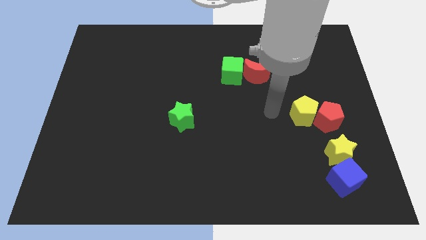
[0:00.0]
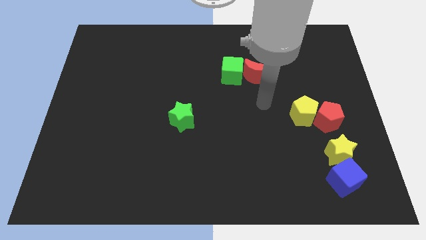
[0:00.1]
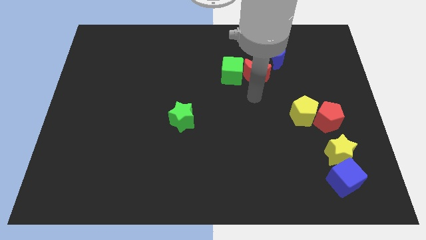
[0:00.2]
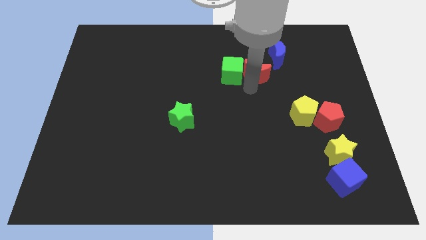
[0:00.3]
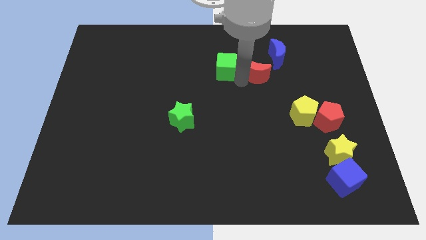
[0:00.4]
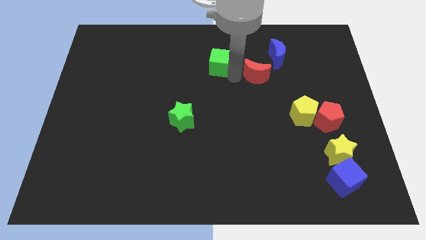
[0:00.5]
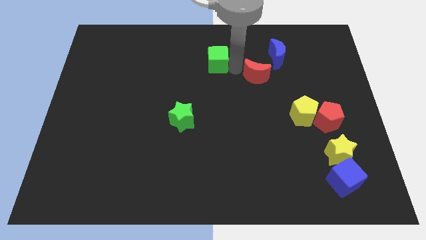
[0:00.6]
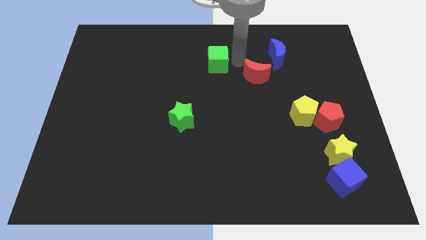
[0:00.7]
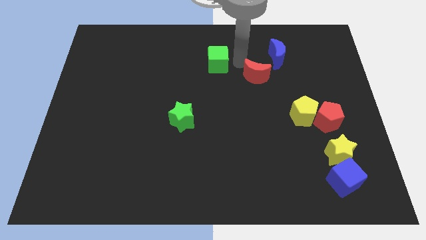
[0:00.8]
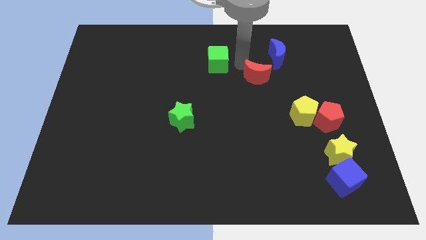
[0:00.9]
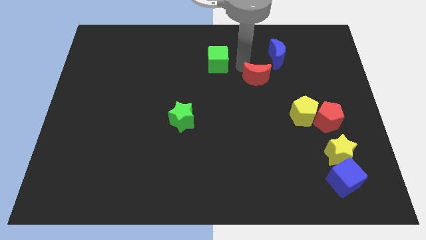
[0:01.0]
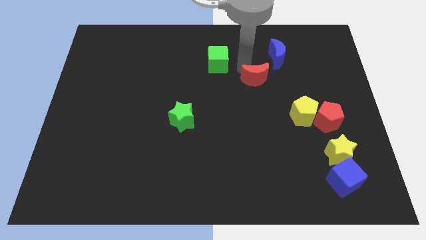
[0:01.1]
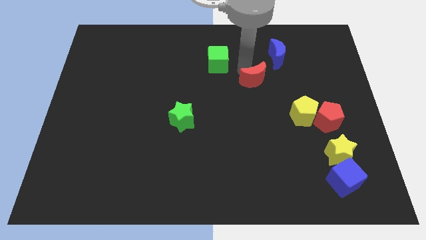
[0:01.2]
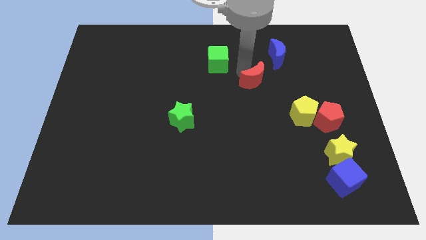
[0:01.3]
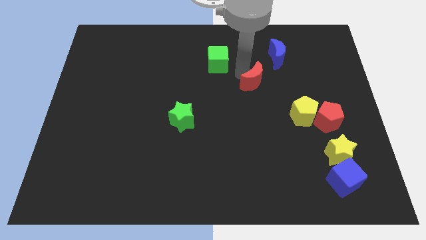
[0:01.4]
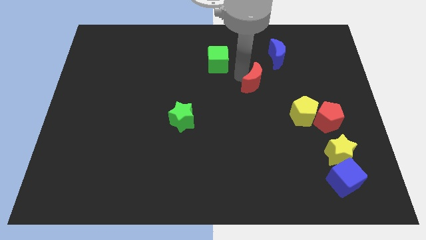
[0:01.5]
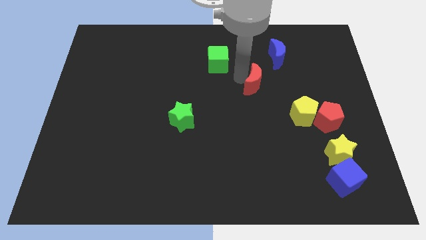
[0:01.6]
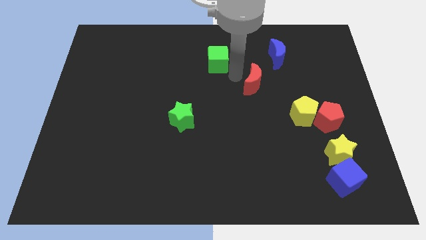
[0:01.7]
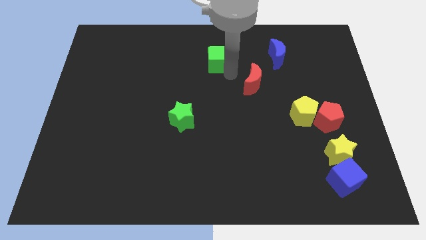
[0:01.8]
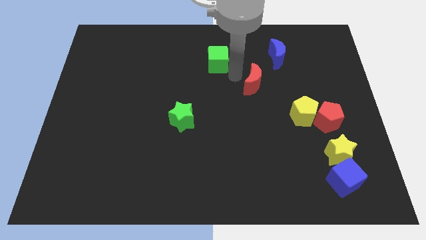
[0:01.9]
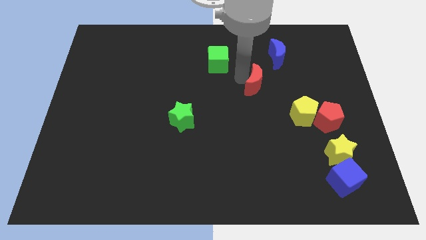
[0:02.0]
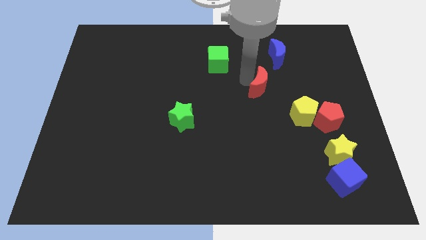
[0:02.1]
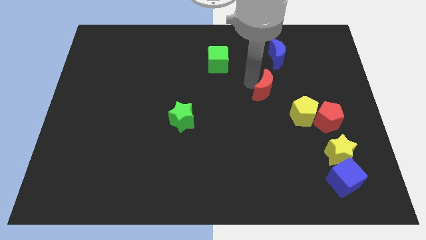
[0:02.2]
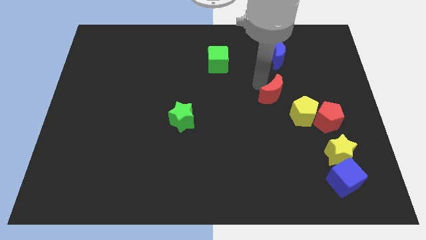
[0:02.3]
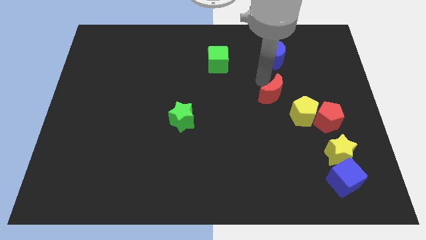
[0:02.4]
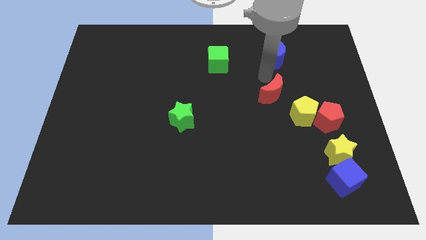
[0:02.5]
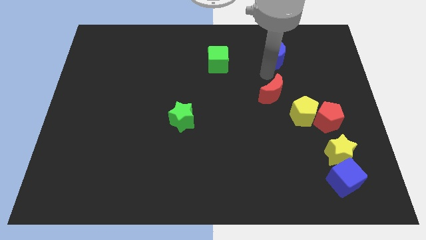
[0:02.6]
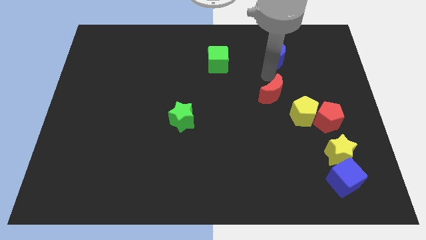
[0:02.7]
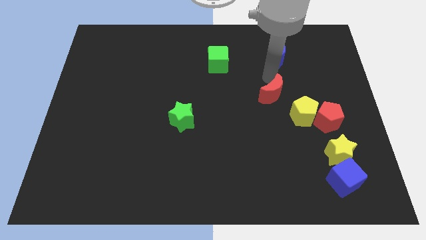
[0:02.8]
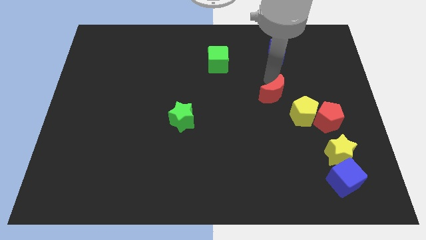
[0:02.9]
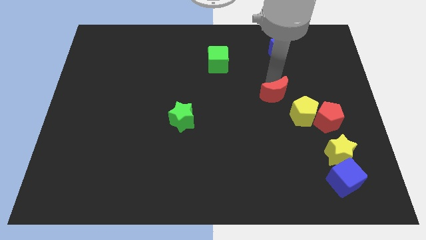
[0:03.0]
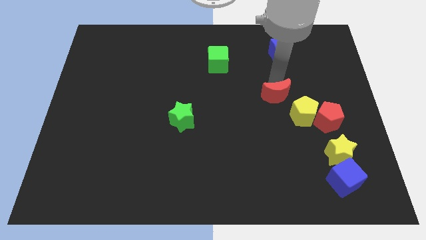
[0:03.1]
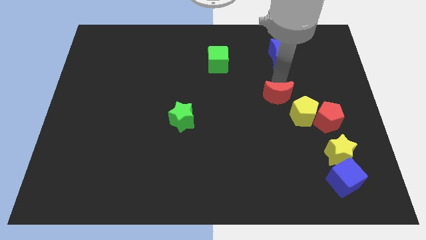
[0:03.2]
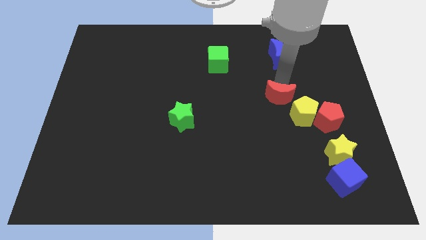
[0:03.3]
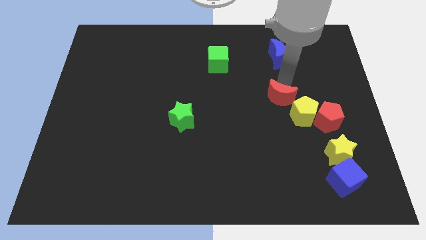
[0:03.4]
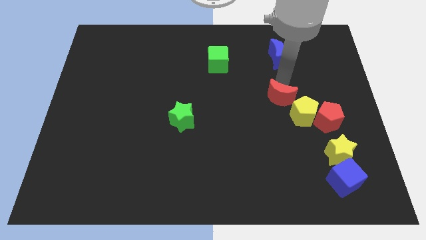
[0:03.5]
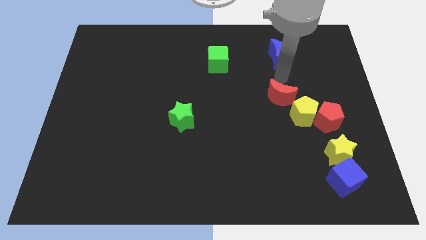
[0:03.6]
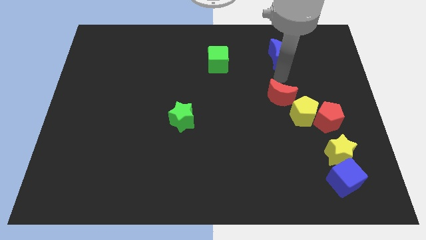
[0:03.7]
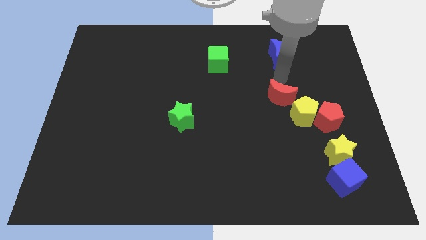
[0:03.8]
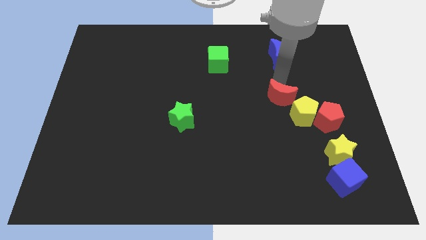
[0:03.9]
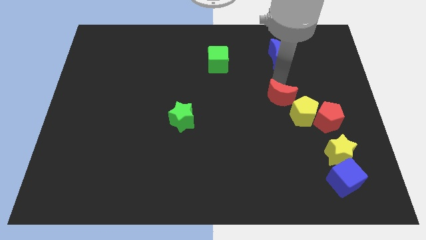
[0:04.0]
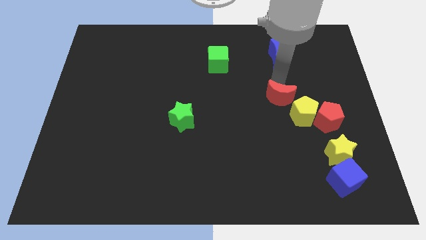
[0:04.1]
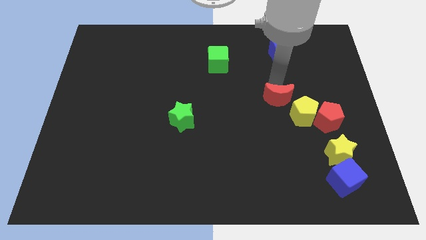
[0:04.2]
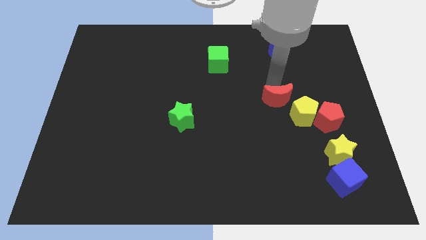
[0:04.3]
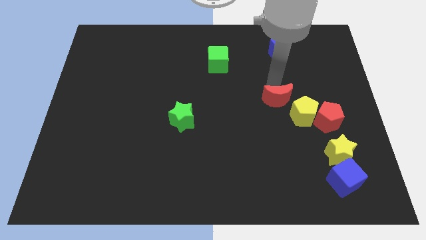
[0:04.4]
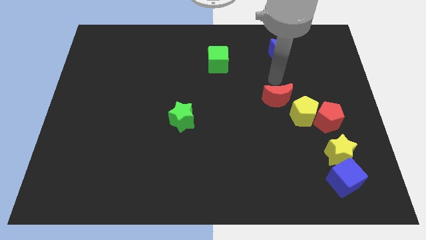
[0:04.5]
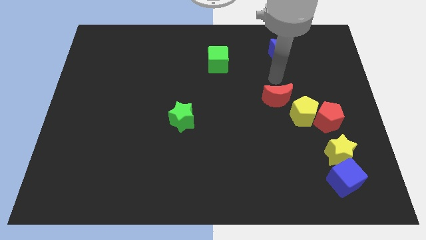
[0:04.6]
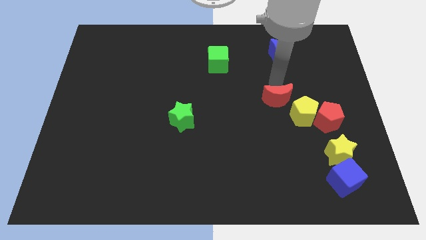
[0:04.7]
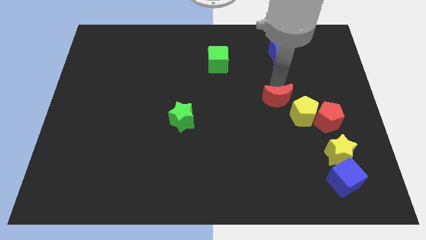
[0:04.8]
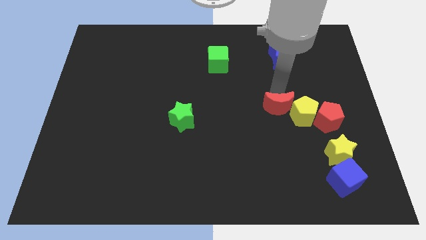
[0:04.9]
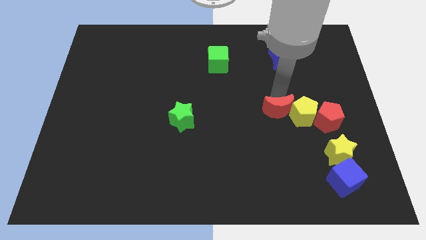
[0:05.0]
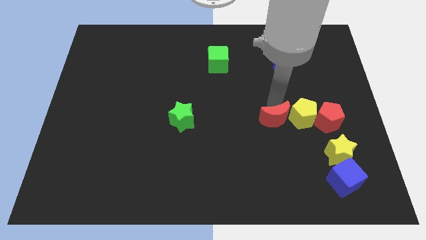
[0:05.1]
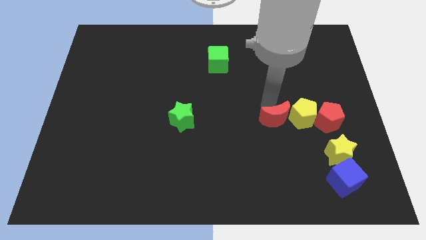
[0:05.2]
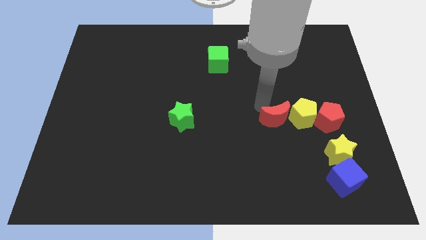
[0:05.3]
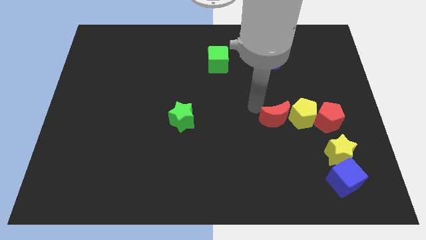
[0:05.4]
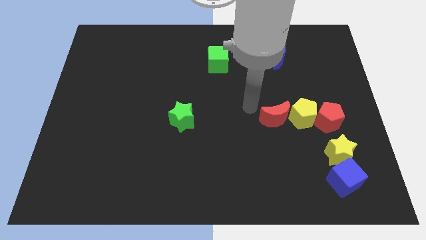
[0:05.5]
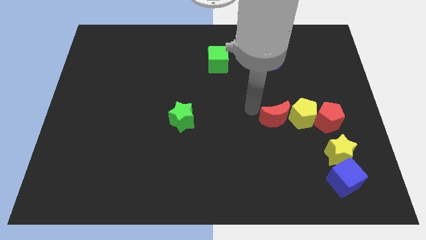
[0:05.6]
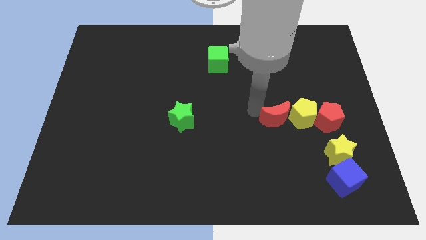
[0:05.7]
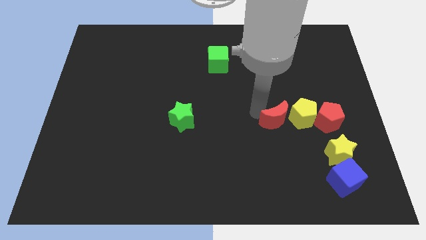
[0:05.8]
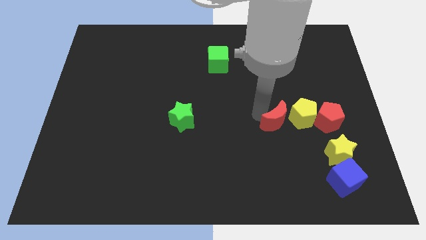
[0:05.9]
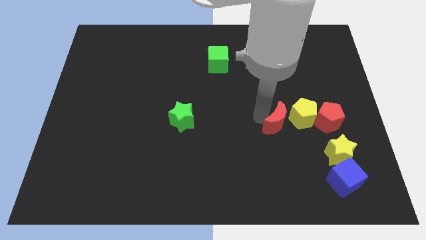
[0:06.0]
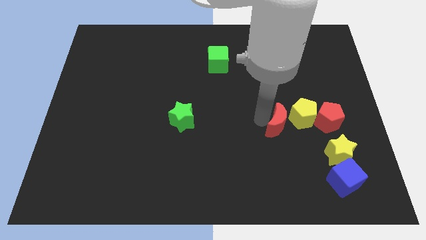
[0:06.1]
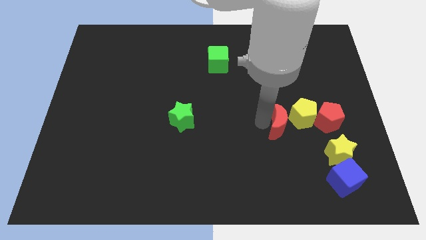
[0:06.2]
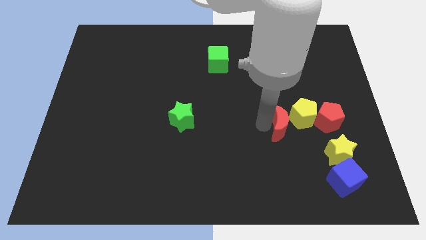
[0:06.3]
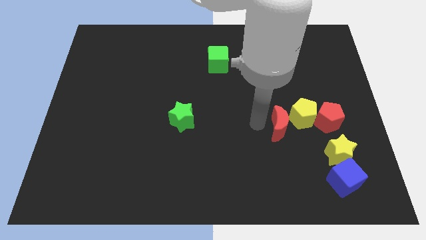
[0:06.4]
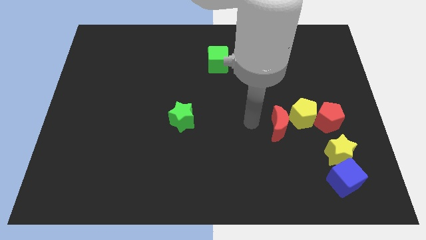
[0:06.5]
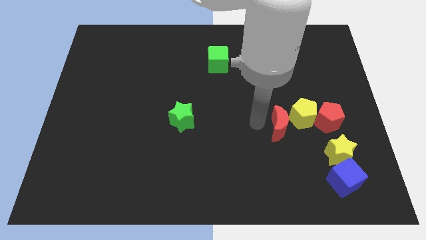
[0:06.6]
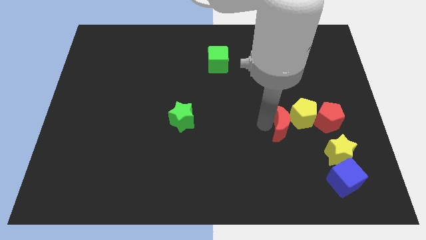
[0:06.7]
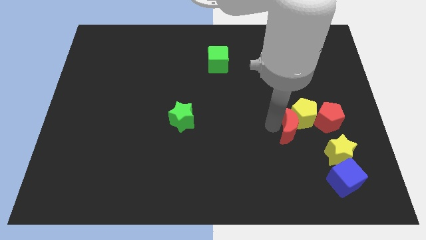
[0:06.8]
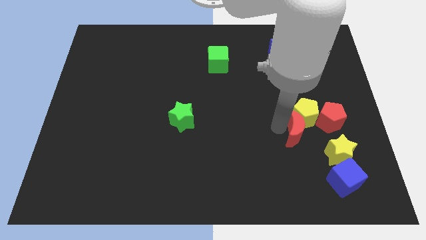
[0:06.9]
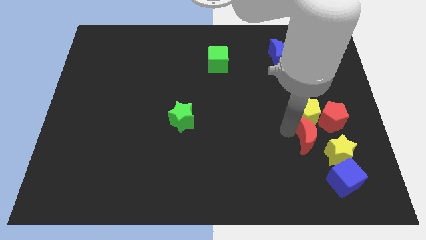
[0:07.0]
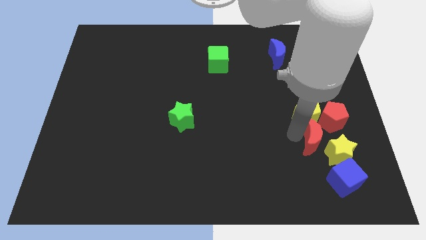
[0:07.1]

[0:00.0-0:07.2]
slide the red moon to the top of the blue cube

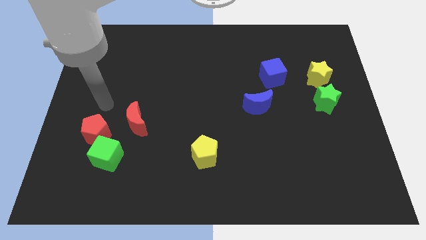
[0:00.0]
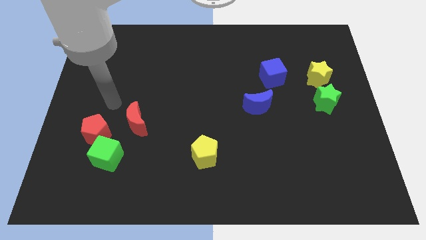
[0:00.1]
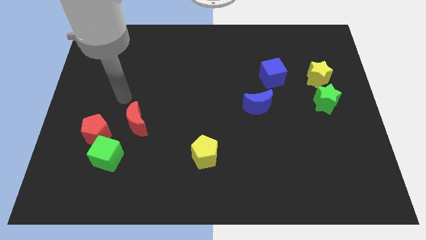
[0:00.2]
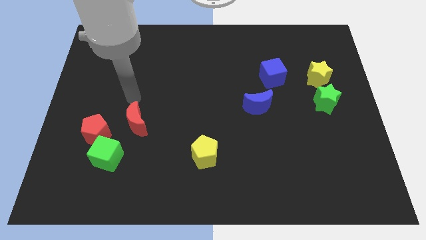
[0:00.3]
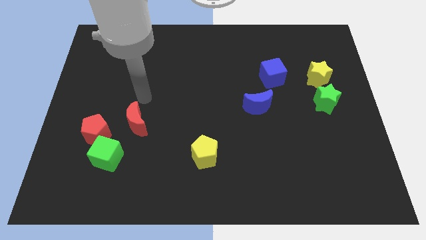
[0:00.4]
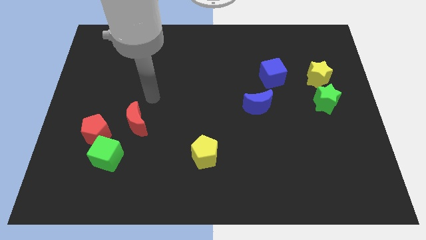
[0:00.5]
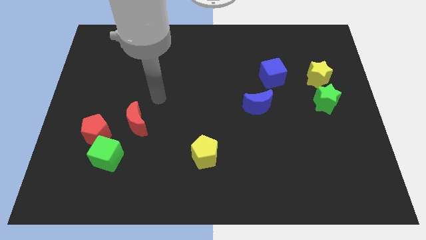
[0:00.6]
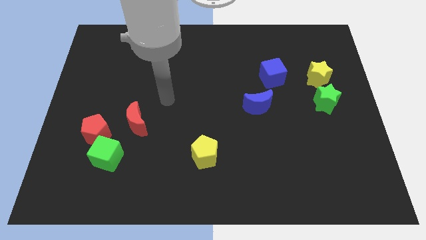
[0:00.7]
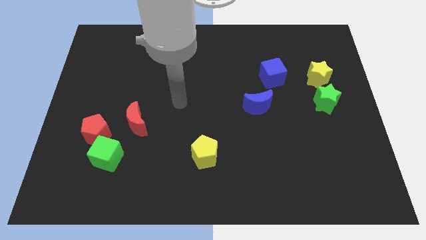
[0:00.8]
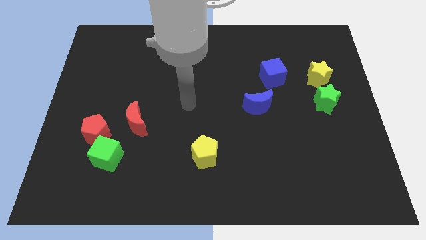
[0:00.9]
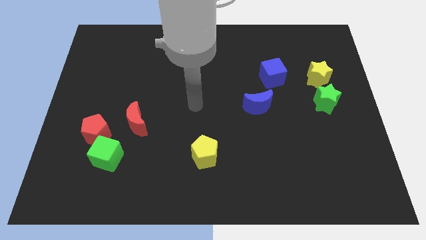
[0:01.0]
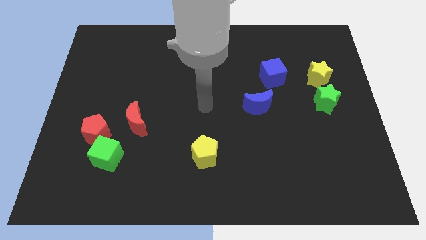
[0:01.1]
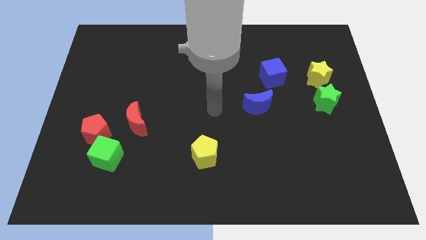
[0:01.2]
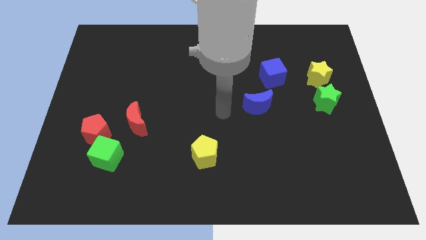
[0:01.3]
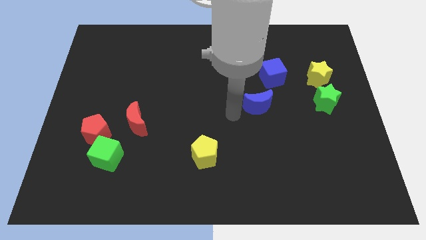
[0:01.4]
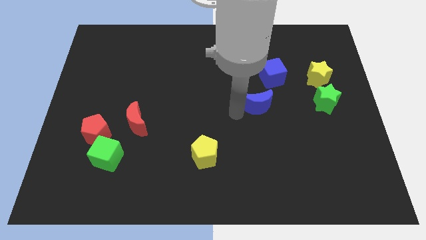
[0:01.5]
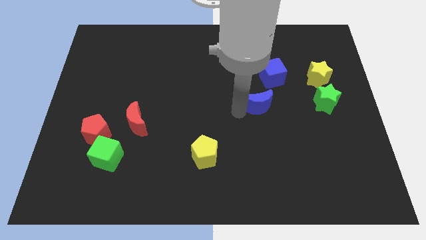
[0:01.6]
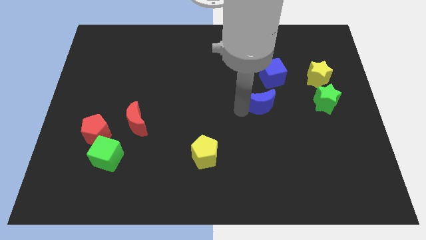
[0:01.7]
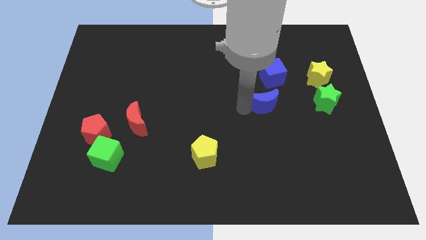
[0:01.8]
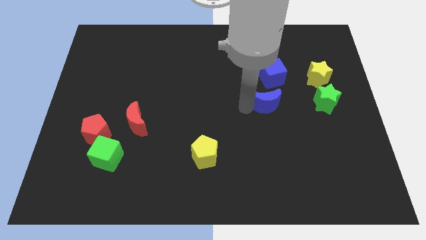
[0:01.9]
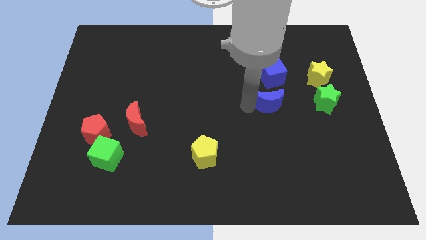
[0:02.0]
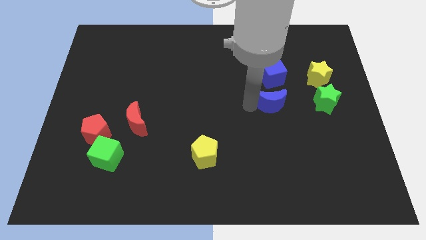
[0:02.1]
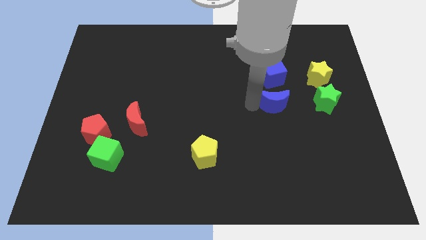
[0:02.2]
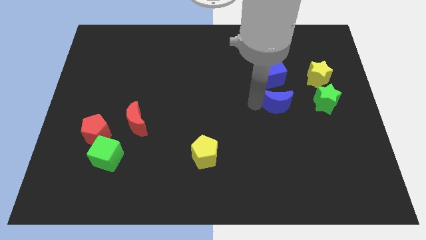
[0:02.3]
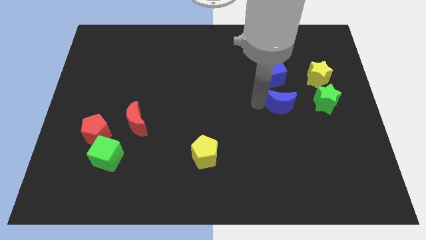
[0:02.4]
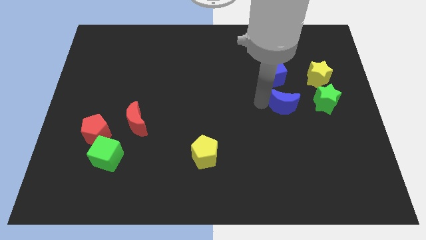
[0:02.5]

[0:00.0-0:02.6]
put the blue moon to the bottom left side of the yellow star
